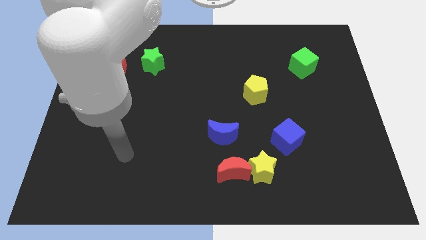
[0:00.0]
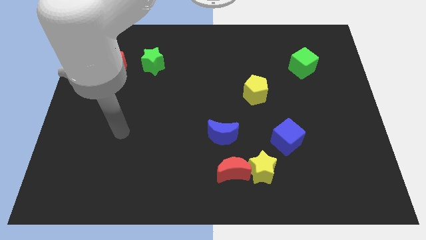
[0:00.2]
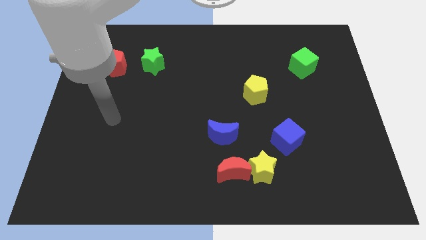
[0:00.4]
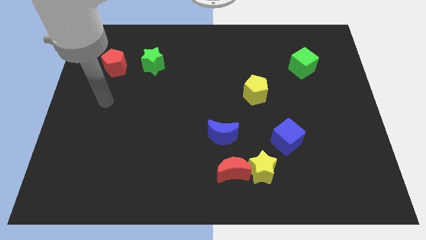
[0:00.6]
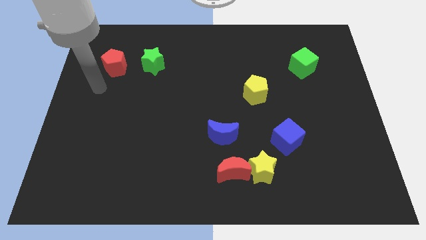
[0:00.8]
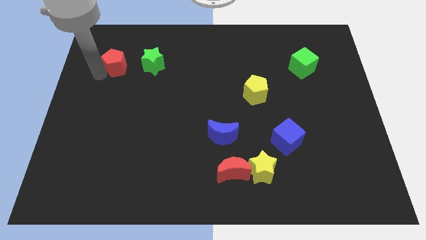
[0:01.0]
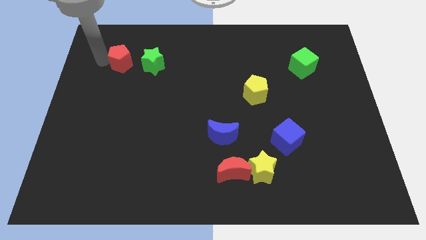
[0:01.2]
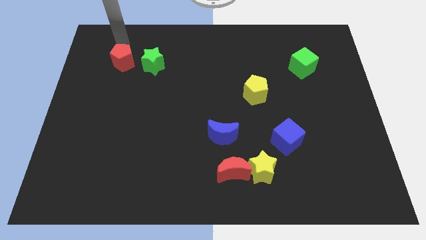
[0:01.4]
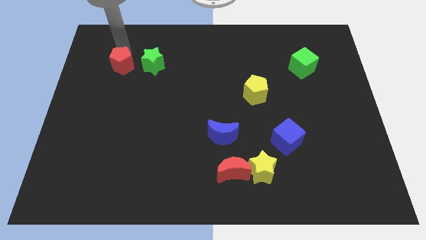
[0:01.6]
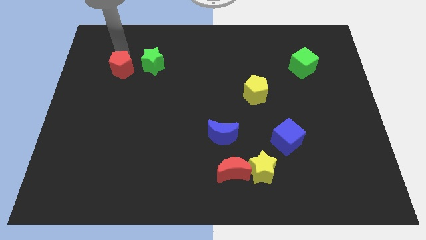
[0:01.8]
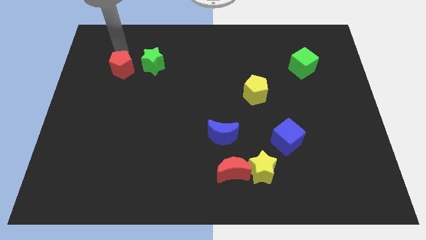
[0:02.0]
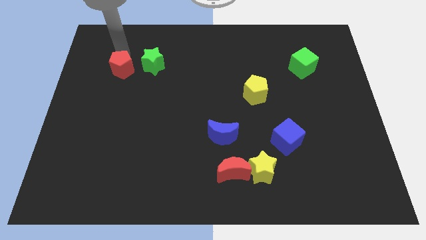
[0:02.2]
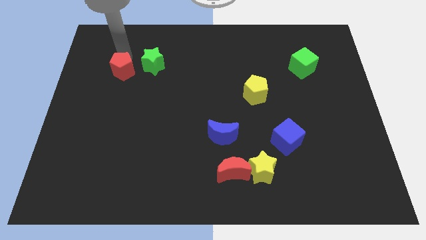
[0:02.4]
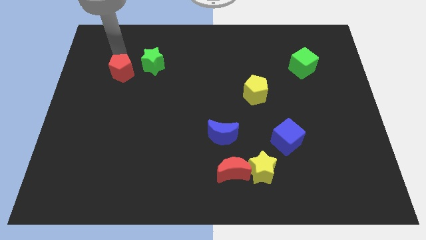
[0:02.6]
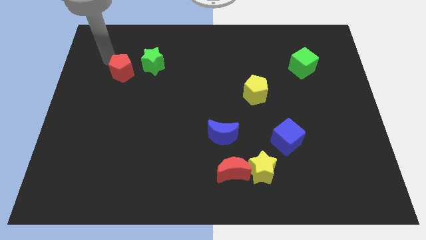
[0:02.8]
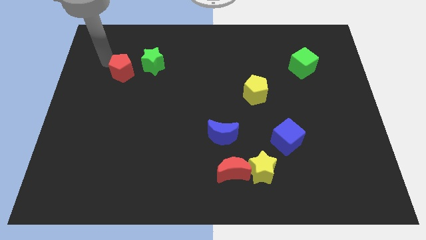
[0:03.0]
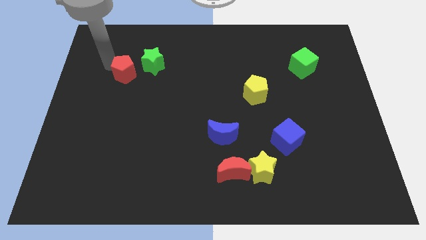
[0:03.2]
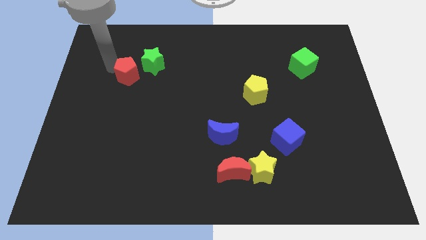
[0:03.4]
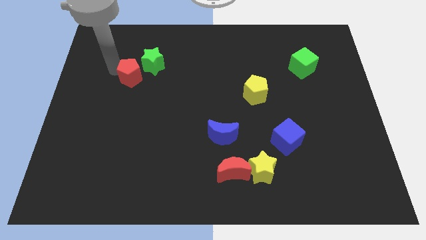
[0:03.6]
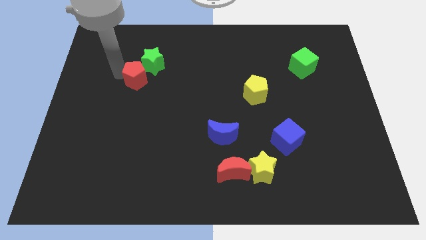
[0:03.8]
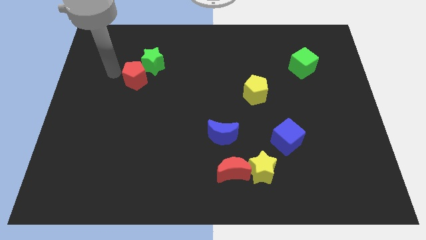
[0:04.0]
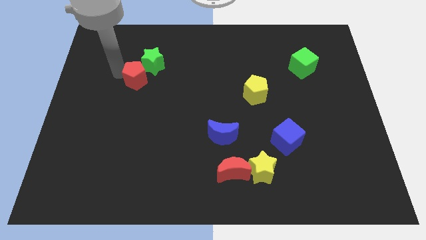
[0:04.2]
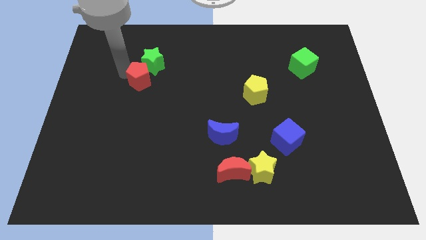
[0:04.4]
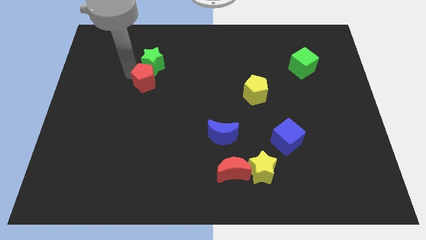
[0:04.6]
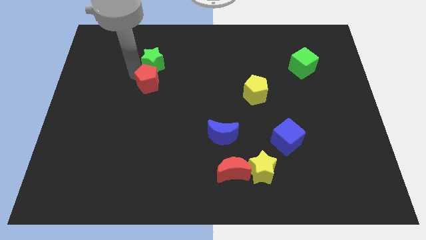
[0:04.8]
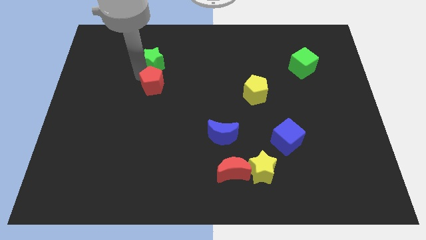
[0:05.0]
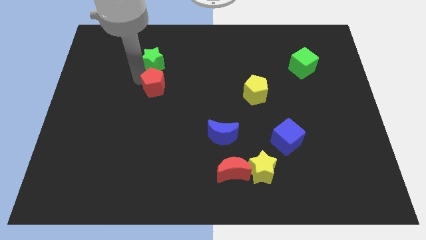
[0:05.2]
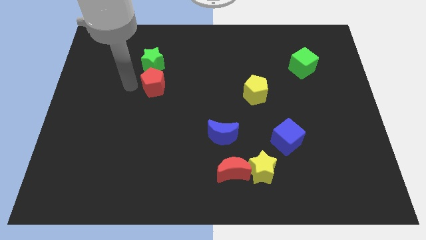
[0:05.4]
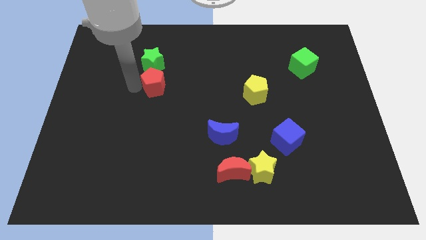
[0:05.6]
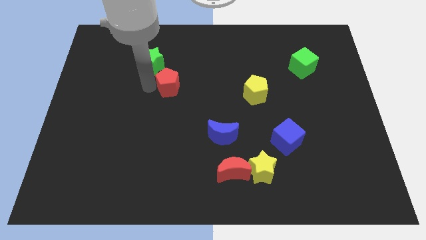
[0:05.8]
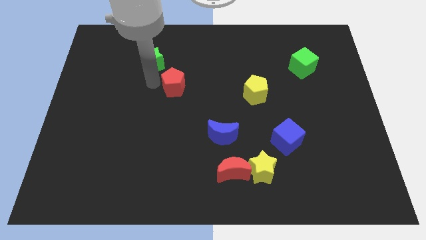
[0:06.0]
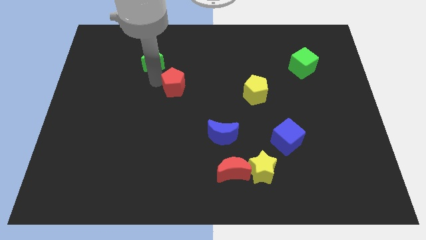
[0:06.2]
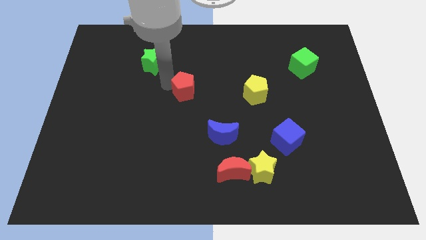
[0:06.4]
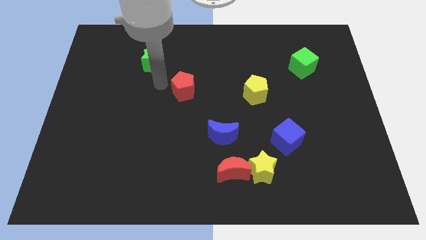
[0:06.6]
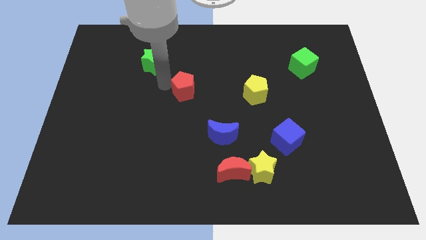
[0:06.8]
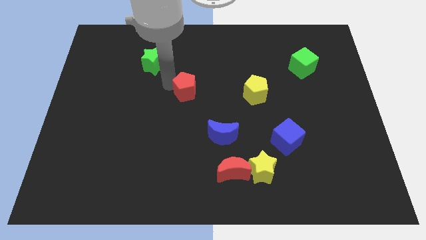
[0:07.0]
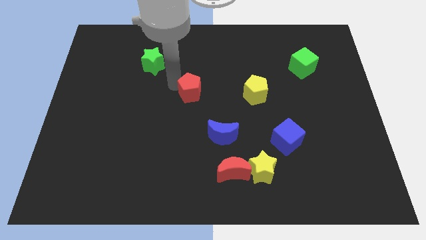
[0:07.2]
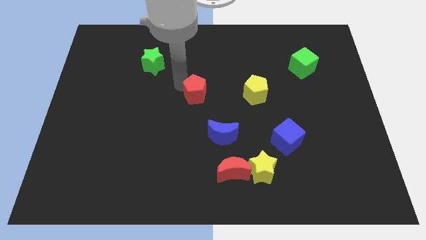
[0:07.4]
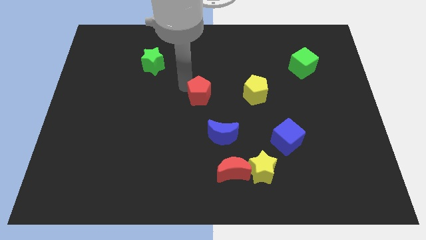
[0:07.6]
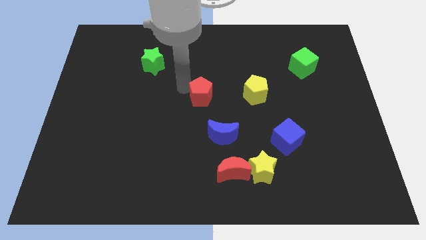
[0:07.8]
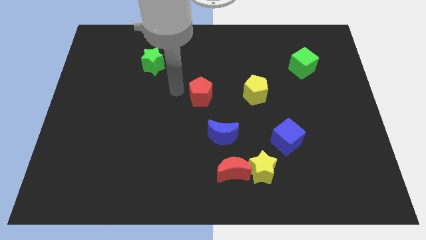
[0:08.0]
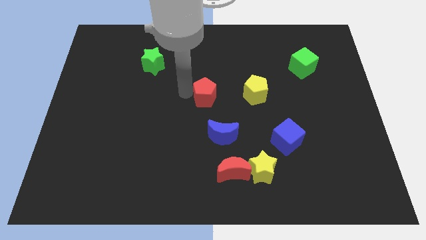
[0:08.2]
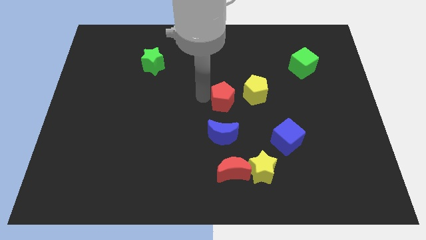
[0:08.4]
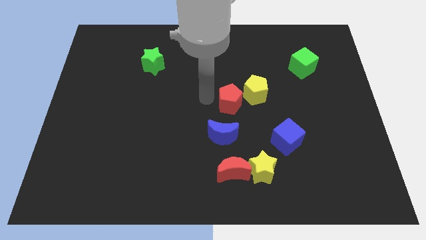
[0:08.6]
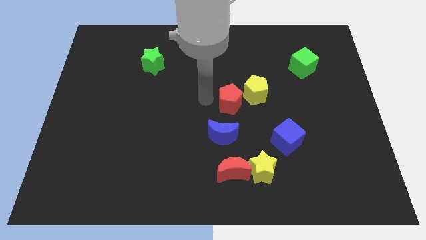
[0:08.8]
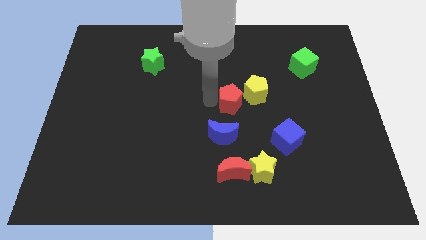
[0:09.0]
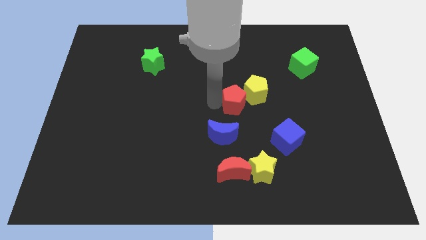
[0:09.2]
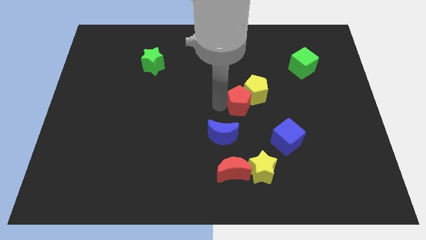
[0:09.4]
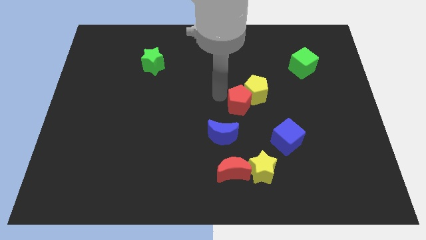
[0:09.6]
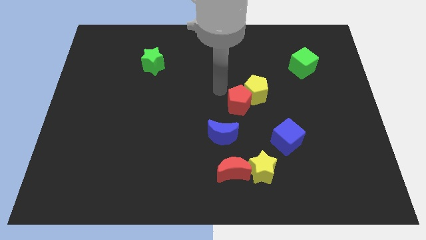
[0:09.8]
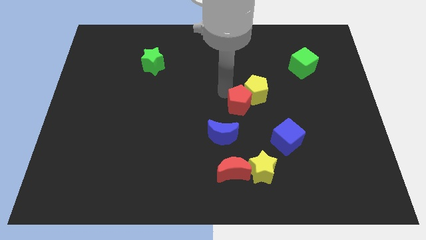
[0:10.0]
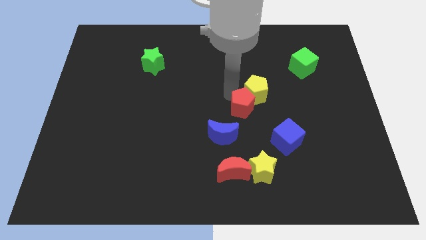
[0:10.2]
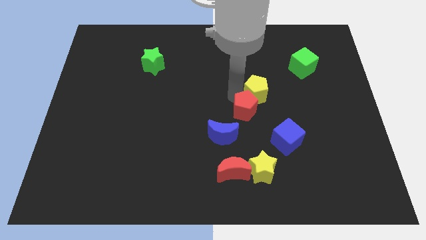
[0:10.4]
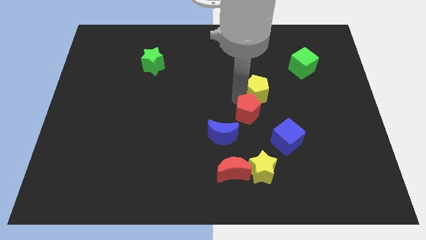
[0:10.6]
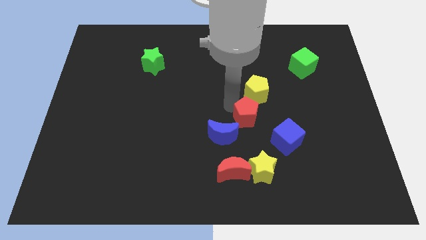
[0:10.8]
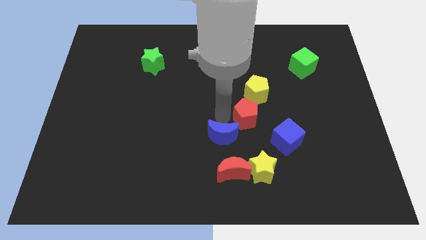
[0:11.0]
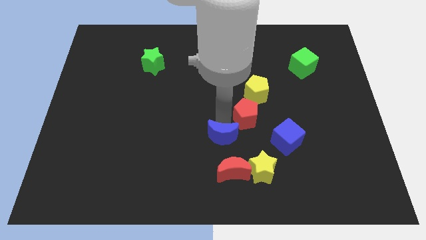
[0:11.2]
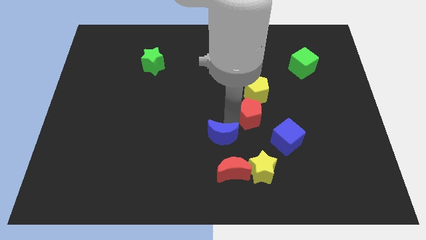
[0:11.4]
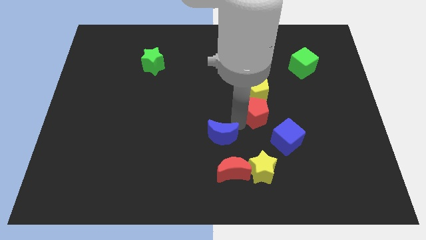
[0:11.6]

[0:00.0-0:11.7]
put the red pentagon diagonally down and to the right of the yellow pentagon

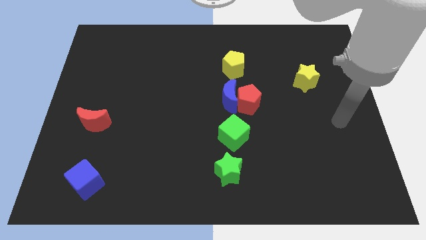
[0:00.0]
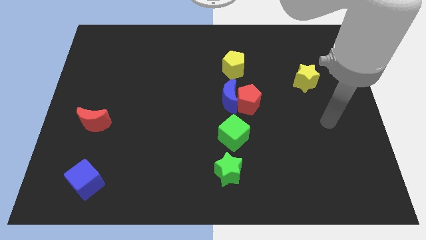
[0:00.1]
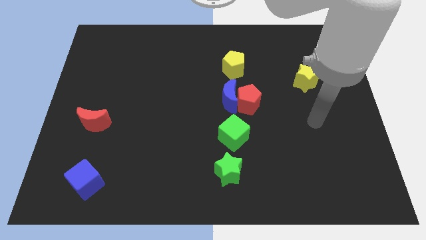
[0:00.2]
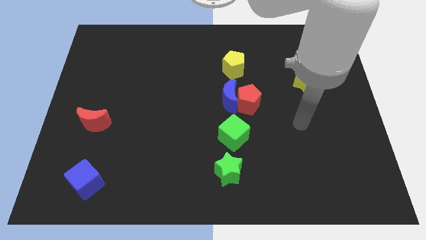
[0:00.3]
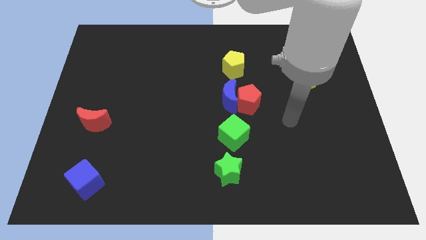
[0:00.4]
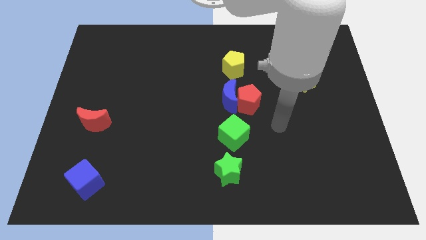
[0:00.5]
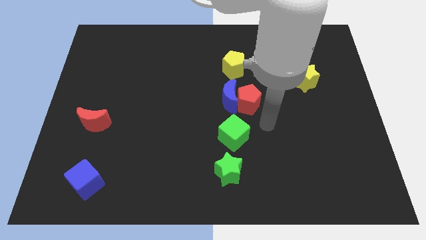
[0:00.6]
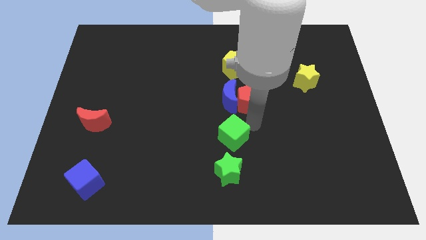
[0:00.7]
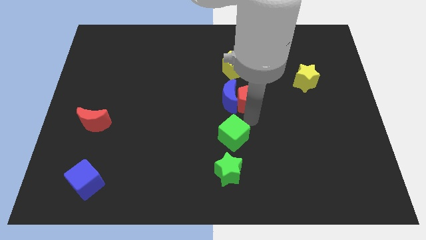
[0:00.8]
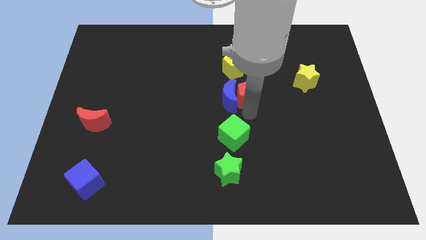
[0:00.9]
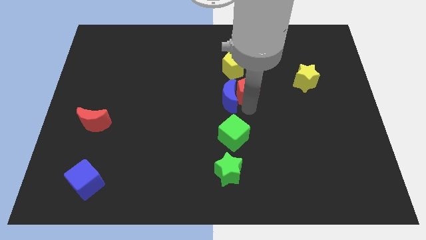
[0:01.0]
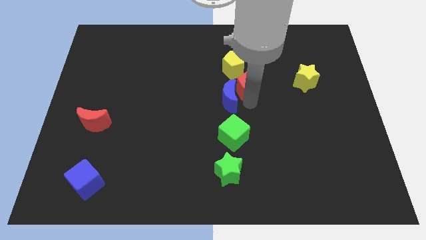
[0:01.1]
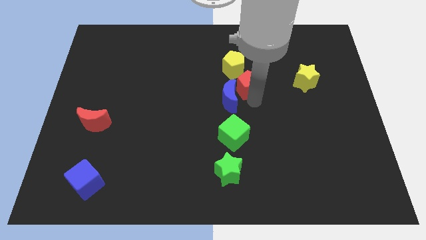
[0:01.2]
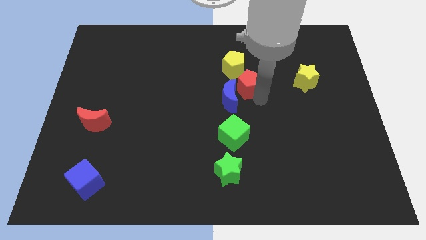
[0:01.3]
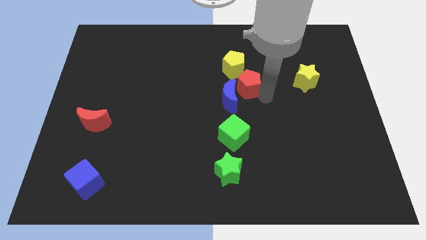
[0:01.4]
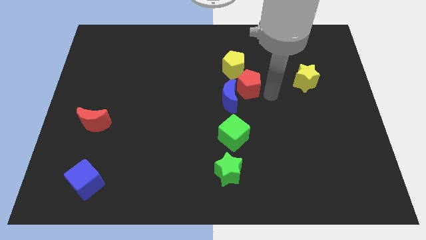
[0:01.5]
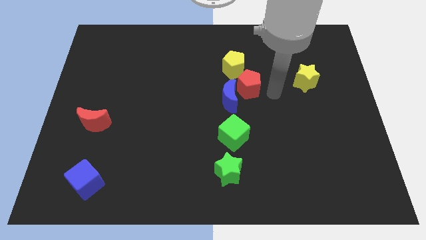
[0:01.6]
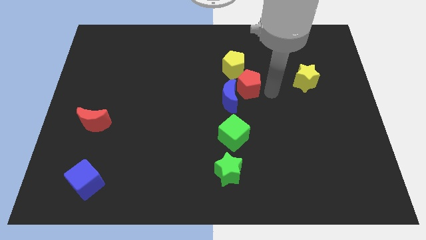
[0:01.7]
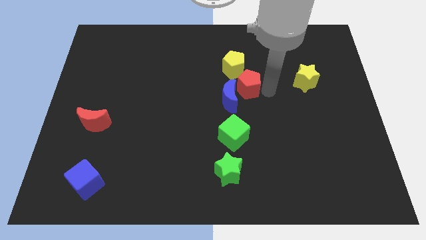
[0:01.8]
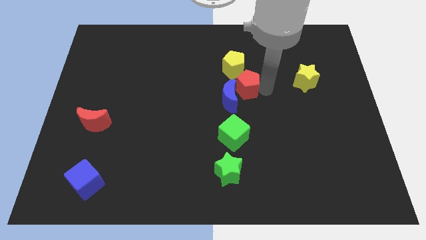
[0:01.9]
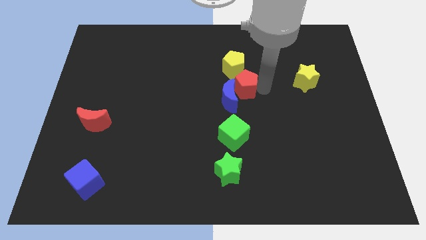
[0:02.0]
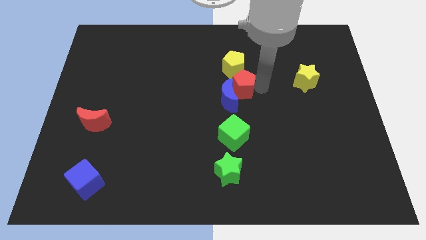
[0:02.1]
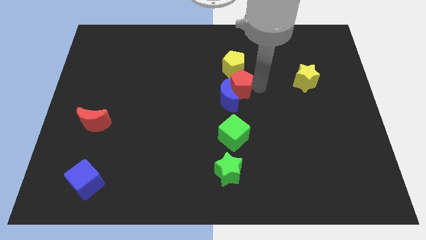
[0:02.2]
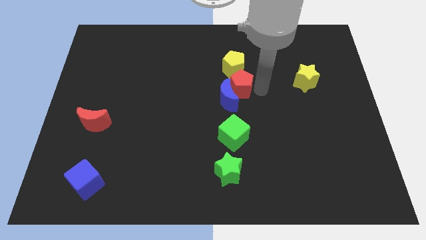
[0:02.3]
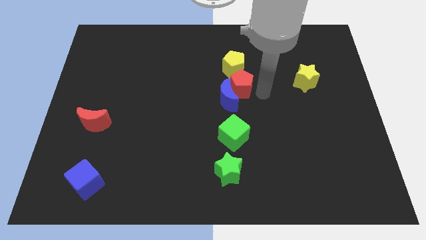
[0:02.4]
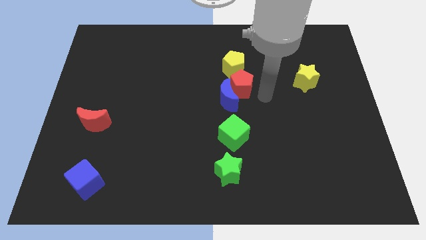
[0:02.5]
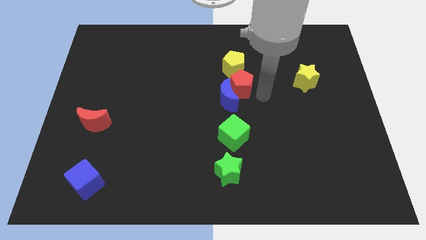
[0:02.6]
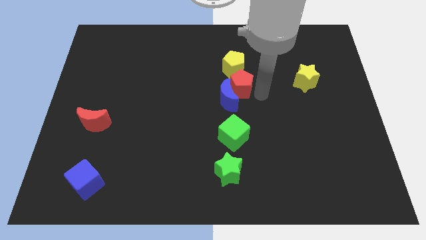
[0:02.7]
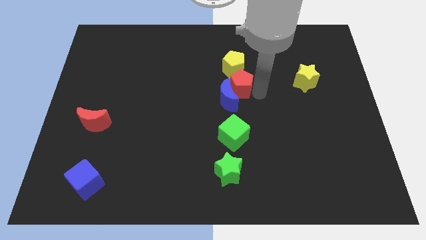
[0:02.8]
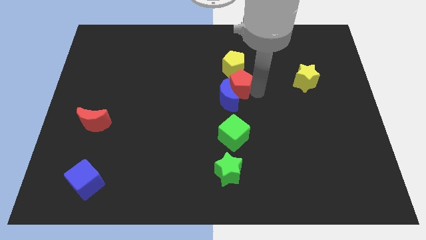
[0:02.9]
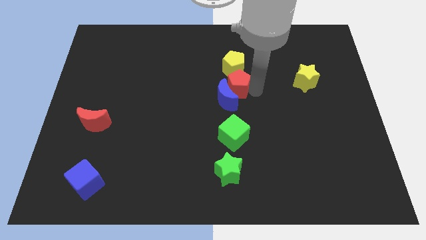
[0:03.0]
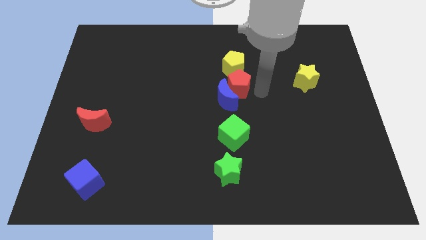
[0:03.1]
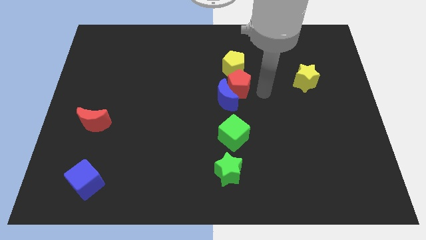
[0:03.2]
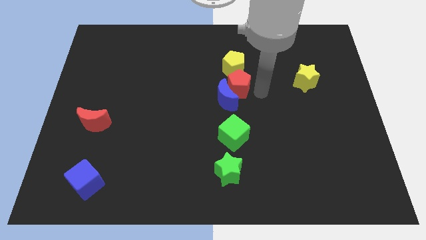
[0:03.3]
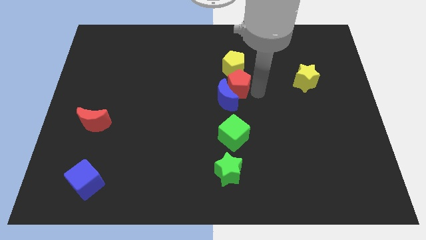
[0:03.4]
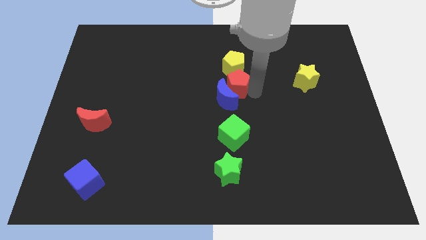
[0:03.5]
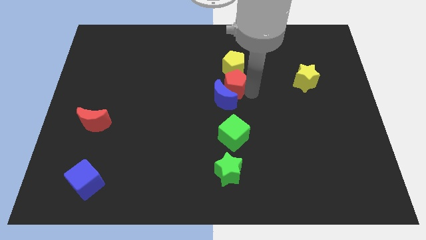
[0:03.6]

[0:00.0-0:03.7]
put the red pentagon to the bottom left of the yellow pentagon
